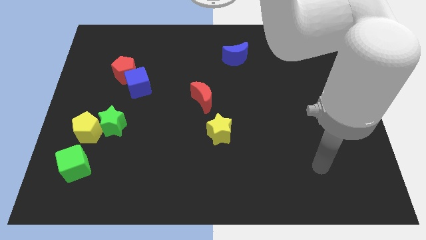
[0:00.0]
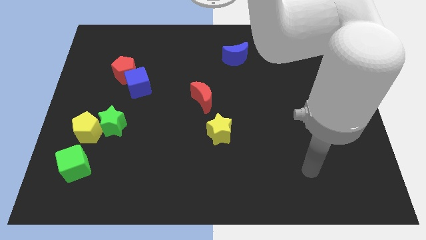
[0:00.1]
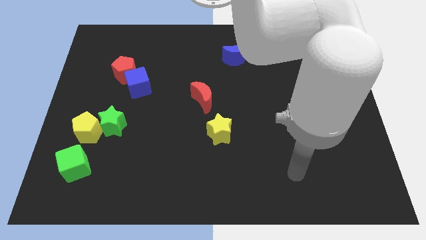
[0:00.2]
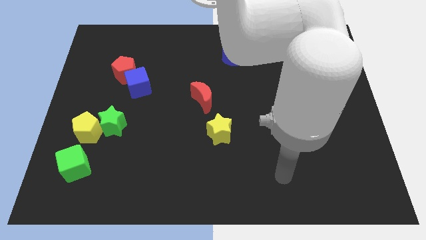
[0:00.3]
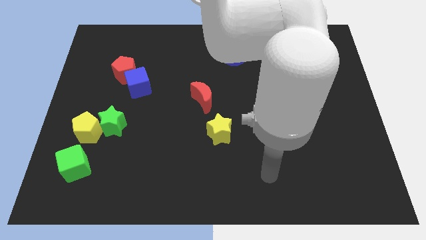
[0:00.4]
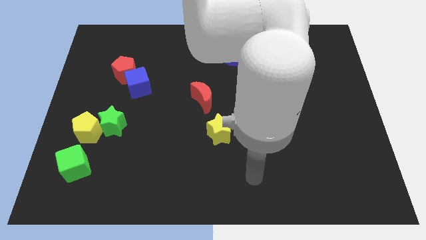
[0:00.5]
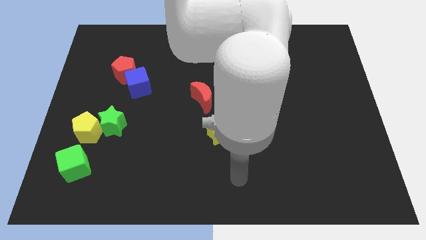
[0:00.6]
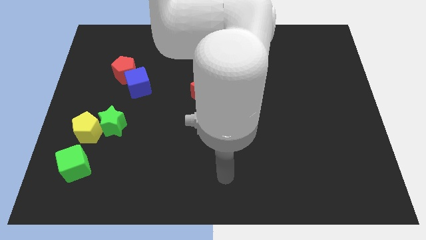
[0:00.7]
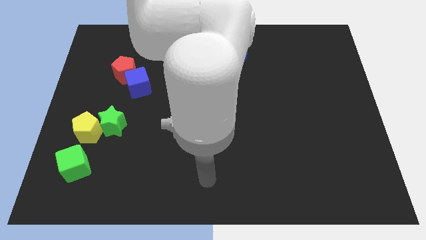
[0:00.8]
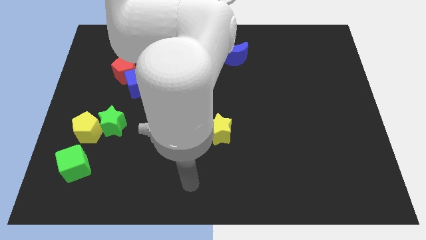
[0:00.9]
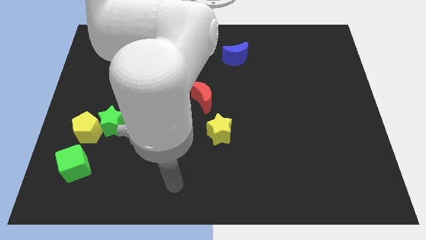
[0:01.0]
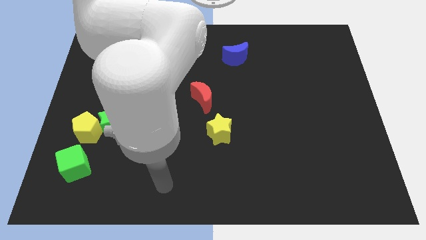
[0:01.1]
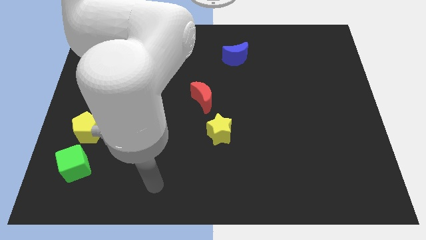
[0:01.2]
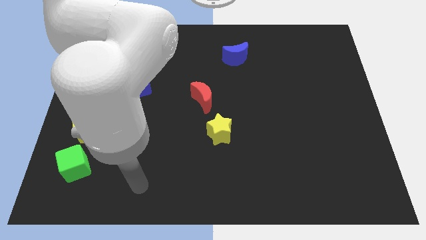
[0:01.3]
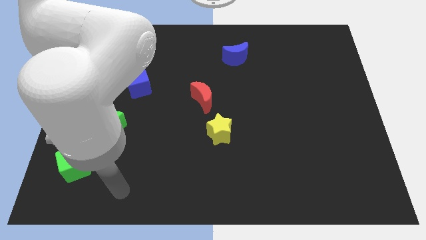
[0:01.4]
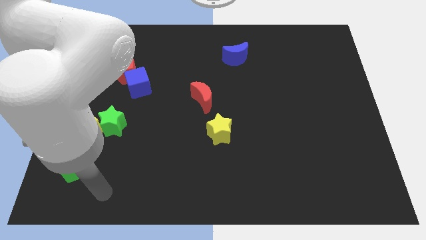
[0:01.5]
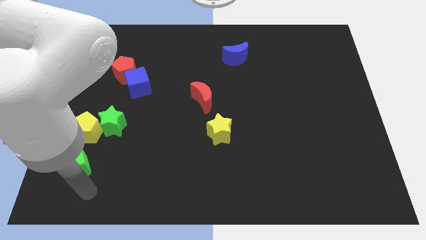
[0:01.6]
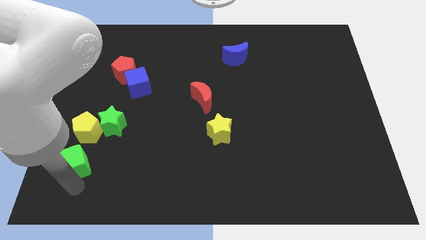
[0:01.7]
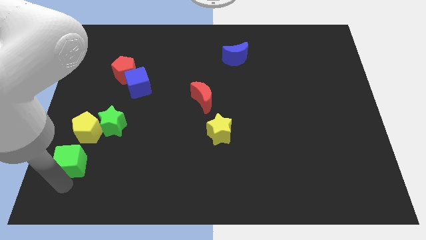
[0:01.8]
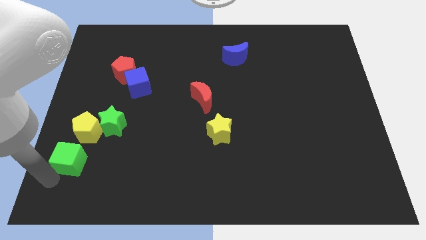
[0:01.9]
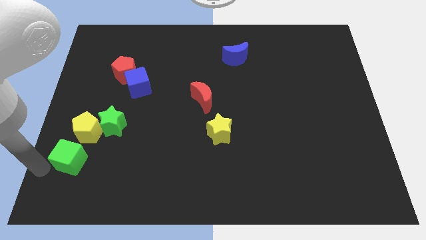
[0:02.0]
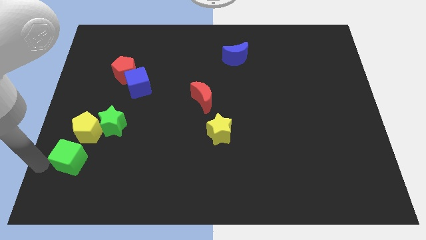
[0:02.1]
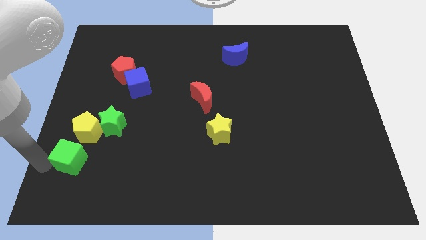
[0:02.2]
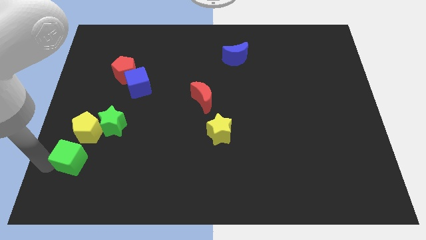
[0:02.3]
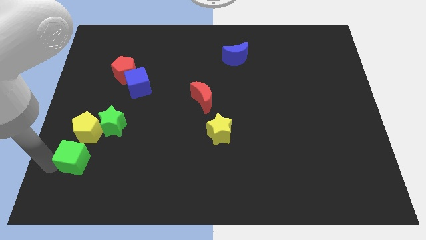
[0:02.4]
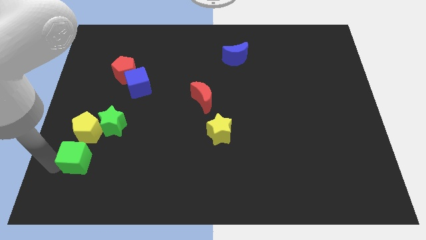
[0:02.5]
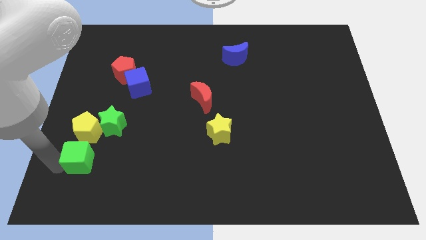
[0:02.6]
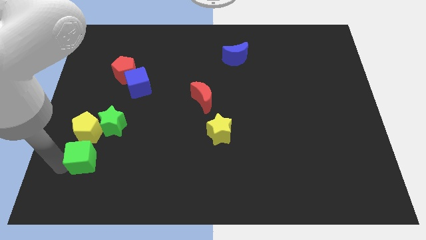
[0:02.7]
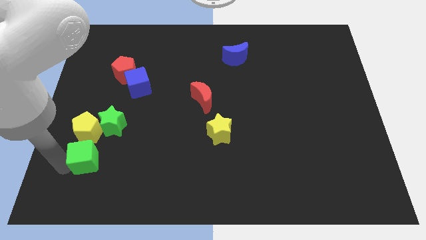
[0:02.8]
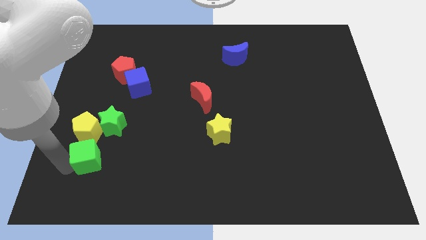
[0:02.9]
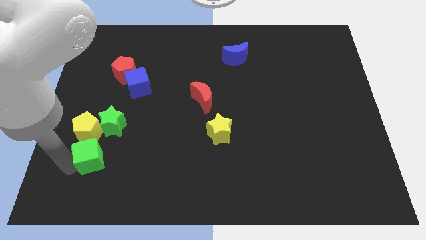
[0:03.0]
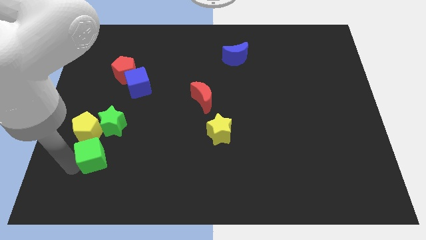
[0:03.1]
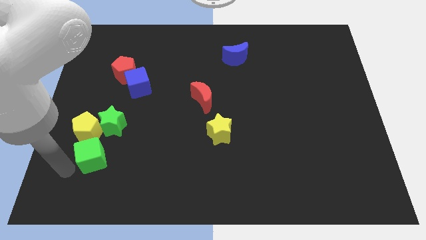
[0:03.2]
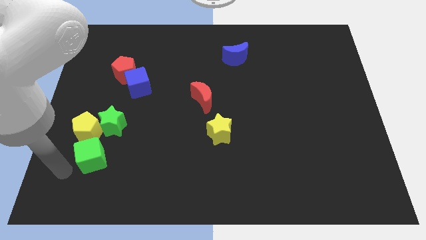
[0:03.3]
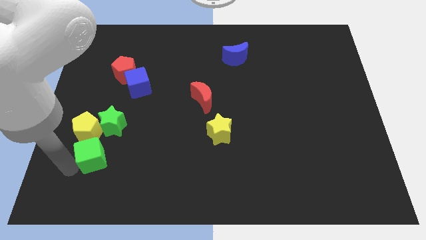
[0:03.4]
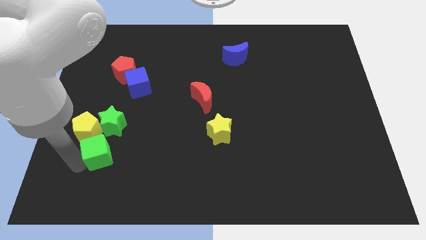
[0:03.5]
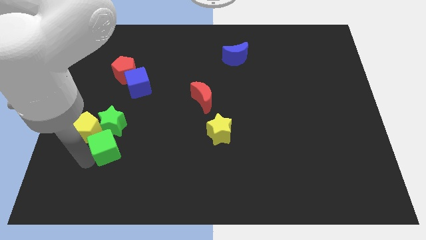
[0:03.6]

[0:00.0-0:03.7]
slightly push the green cube diagonally up and to the right

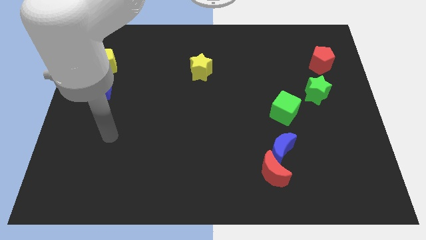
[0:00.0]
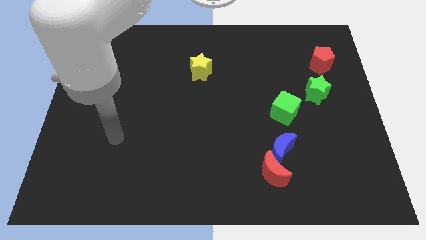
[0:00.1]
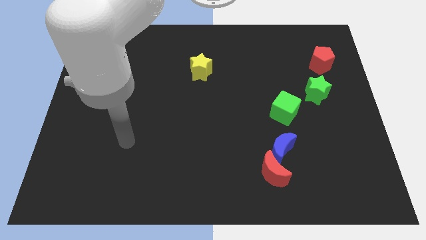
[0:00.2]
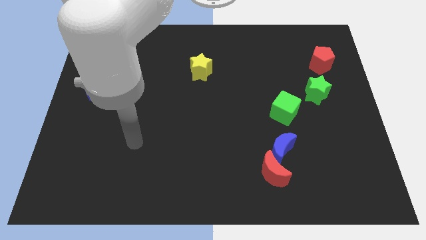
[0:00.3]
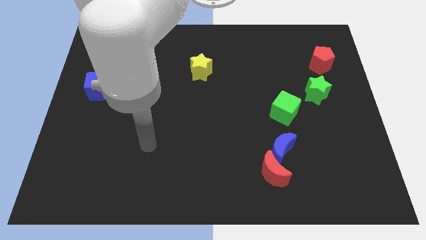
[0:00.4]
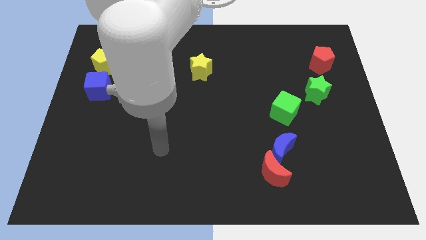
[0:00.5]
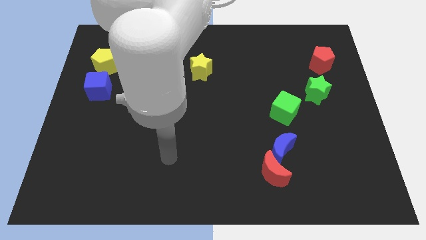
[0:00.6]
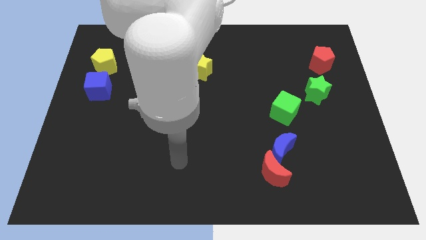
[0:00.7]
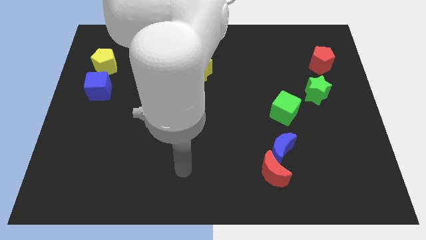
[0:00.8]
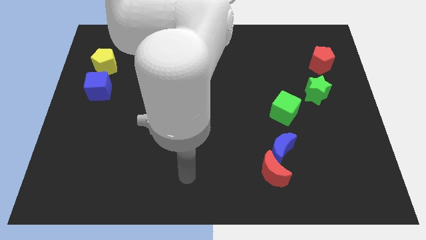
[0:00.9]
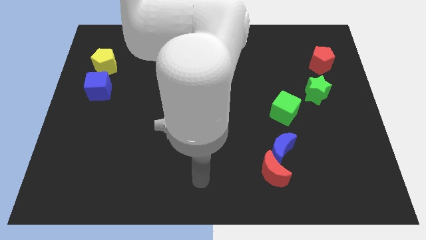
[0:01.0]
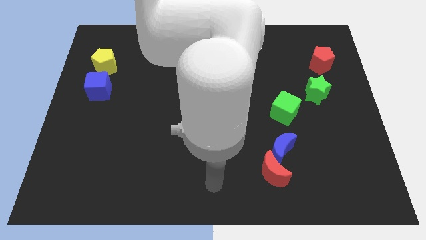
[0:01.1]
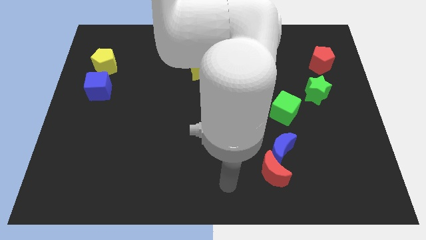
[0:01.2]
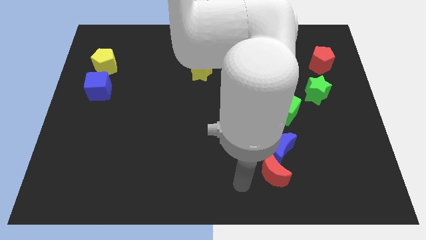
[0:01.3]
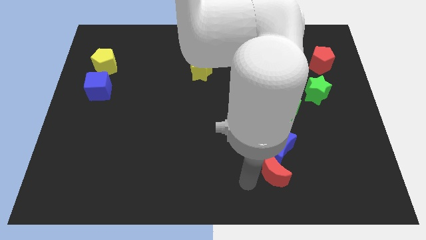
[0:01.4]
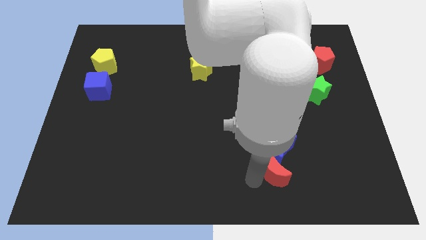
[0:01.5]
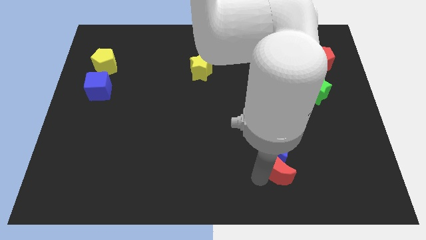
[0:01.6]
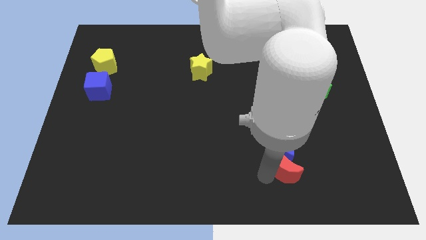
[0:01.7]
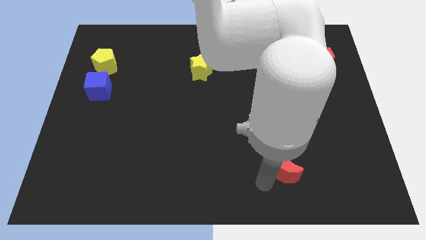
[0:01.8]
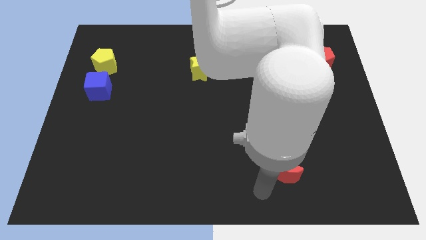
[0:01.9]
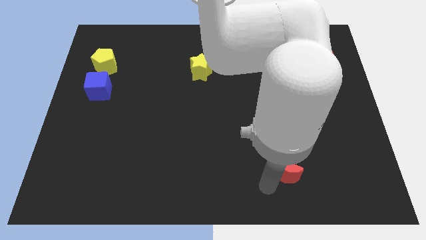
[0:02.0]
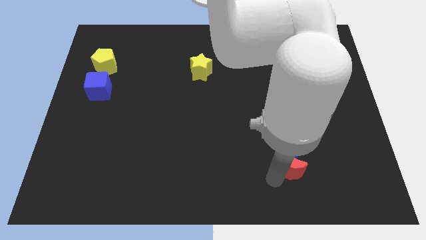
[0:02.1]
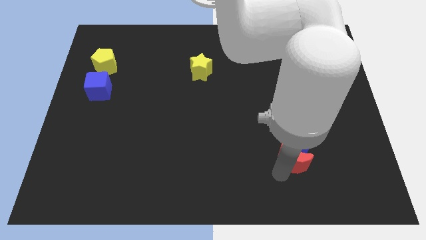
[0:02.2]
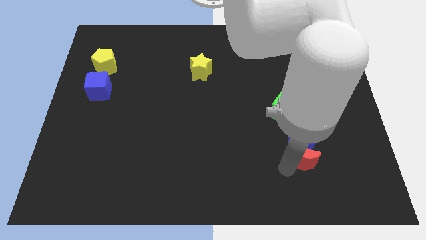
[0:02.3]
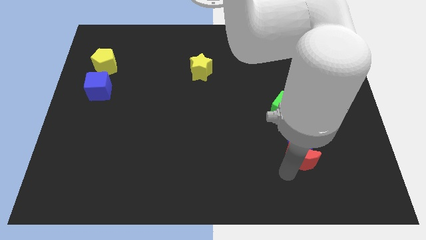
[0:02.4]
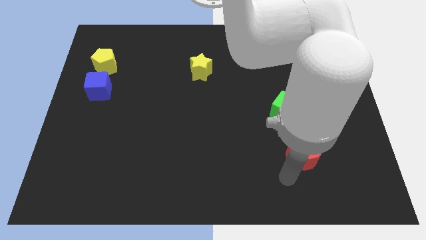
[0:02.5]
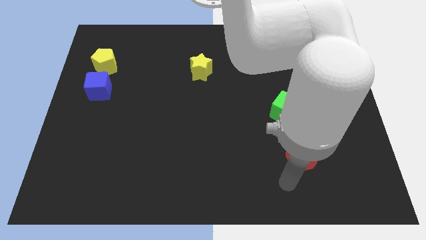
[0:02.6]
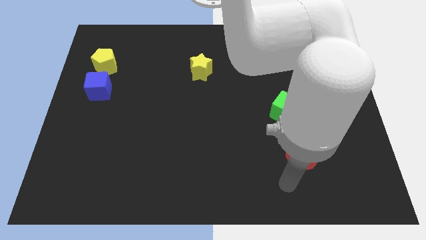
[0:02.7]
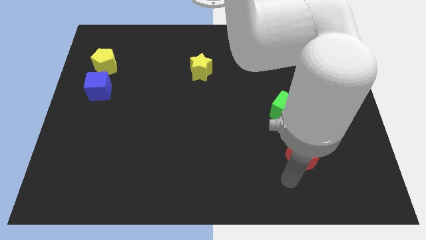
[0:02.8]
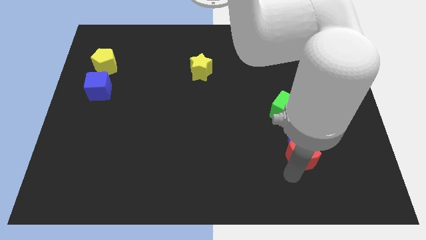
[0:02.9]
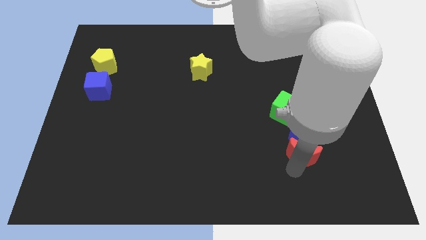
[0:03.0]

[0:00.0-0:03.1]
slide the red moon up and right a little bit

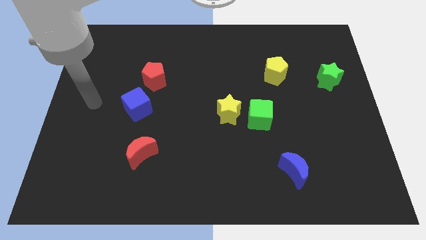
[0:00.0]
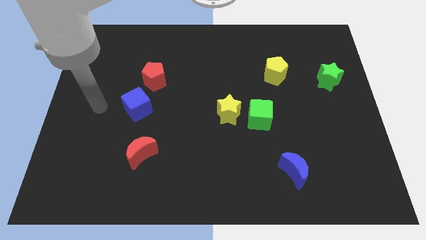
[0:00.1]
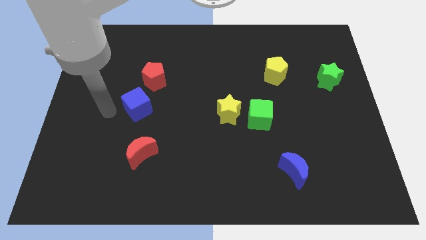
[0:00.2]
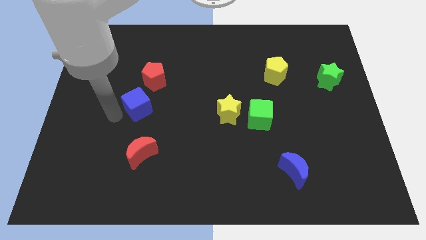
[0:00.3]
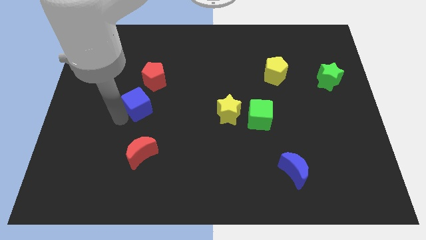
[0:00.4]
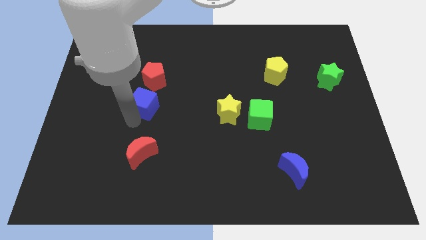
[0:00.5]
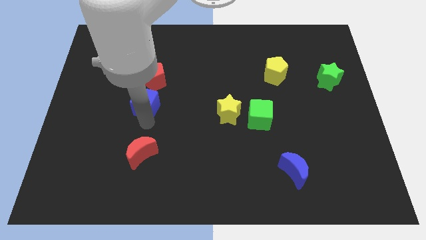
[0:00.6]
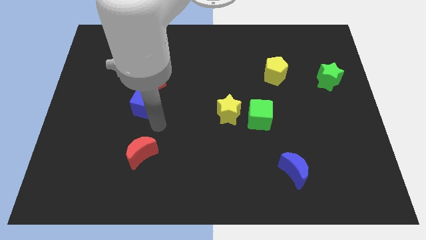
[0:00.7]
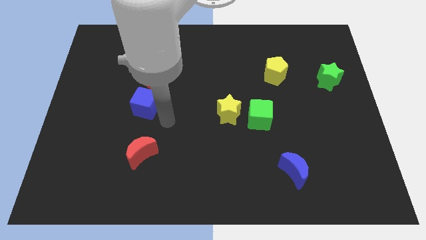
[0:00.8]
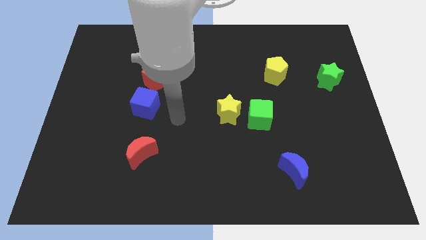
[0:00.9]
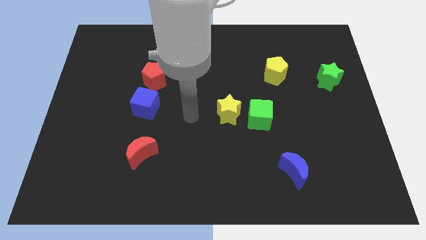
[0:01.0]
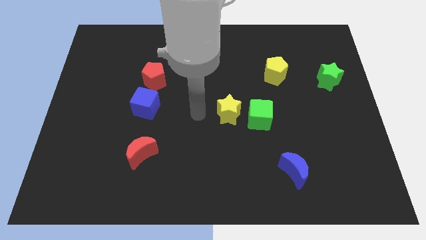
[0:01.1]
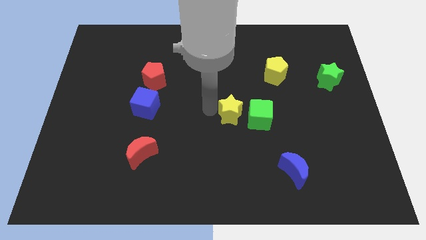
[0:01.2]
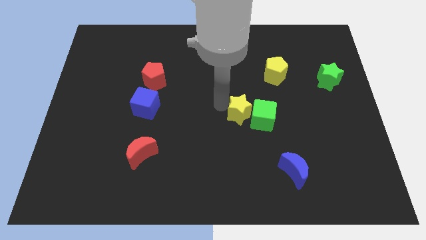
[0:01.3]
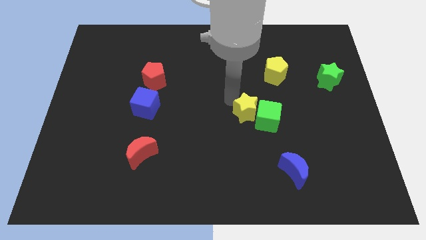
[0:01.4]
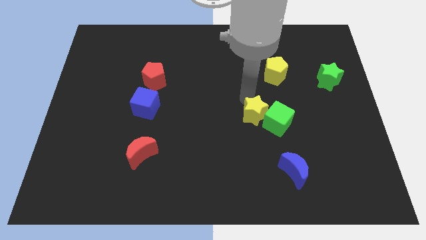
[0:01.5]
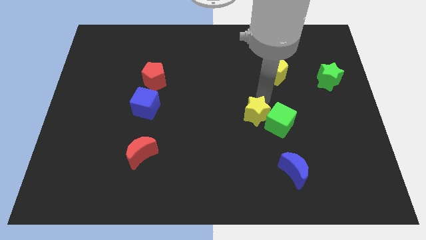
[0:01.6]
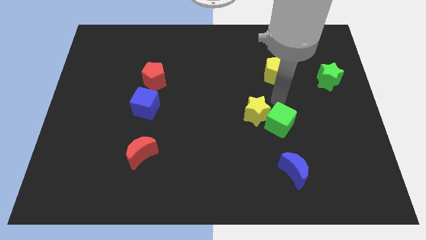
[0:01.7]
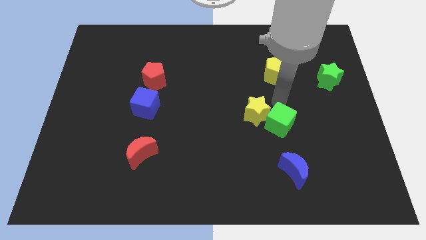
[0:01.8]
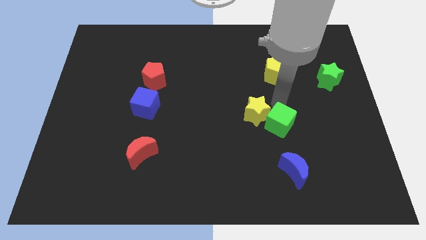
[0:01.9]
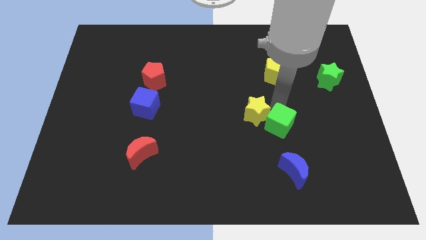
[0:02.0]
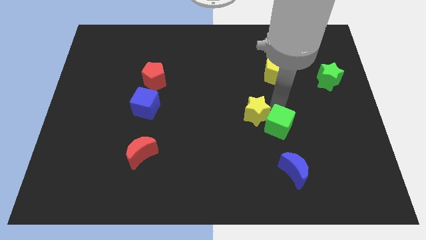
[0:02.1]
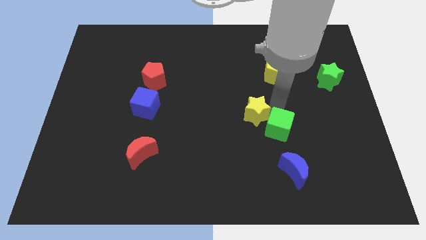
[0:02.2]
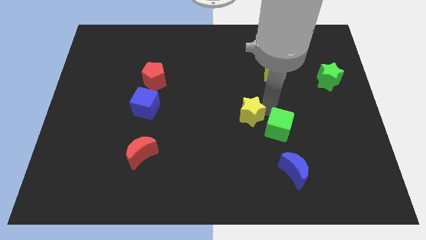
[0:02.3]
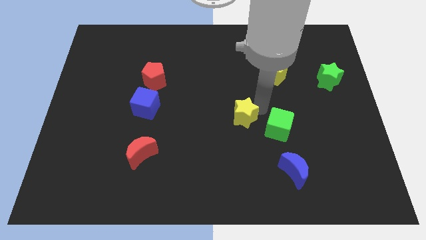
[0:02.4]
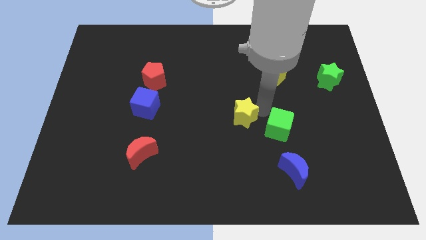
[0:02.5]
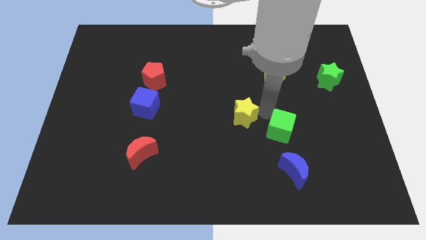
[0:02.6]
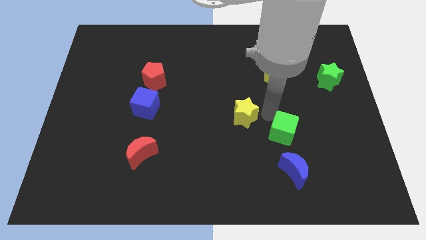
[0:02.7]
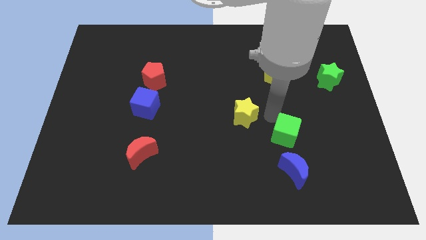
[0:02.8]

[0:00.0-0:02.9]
move the green cube slightly diagonally down and right
